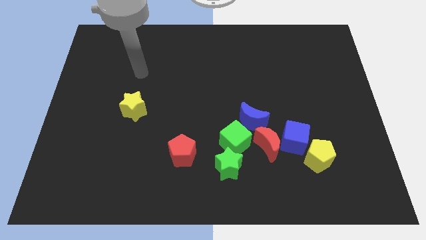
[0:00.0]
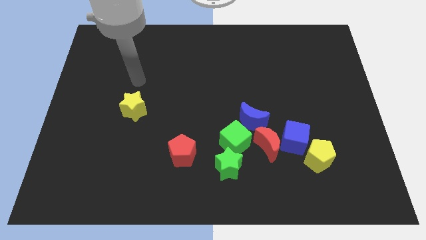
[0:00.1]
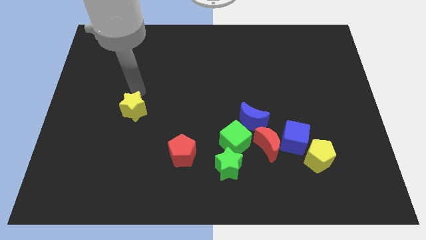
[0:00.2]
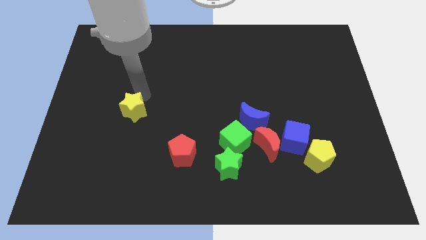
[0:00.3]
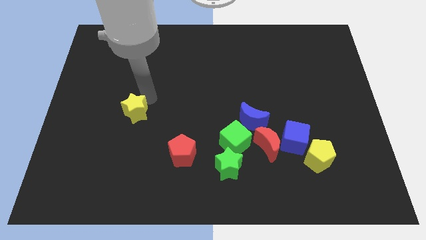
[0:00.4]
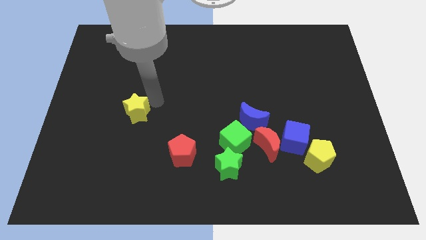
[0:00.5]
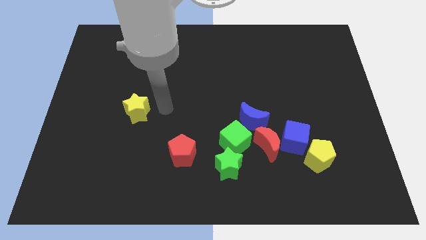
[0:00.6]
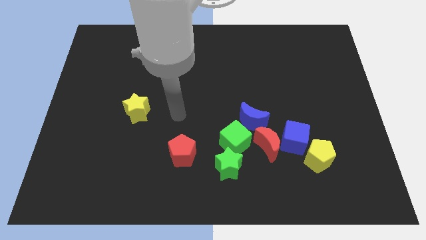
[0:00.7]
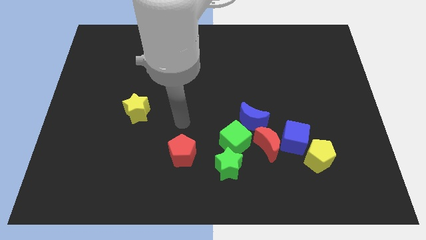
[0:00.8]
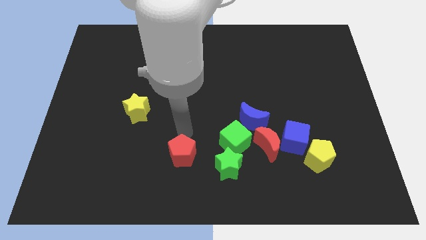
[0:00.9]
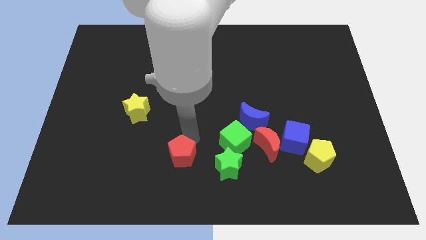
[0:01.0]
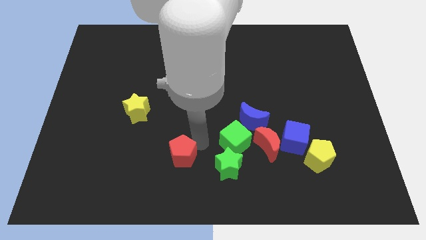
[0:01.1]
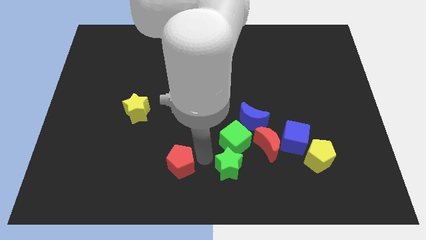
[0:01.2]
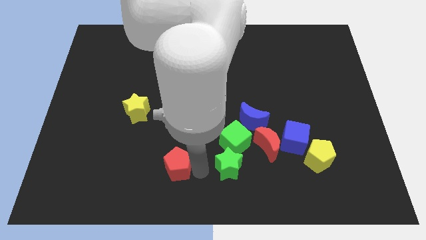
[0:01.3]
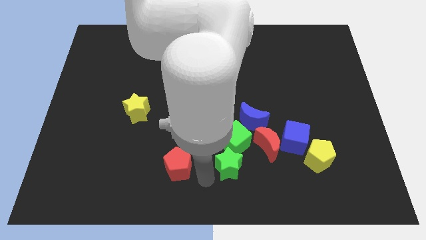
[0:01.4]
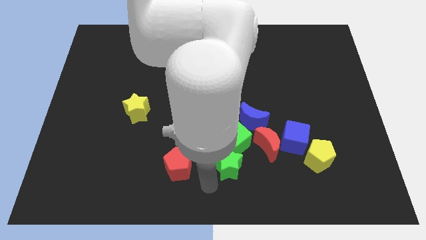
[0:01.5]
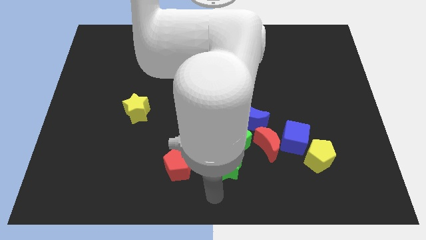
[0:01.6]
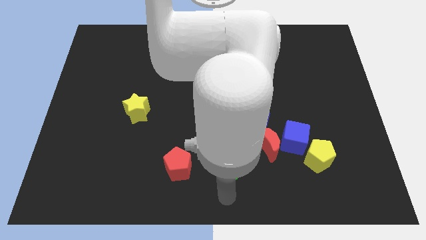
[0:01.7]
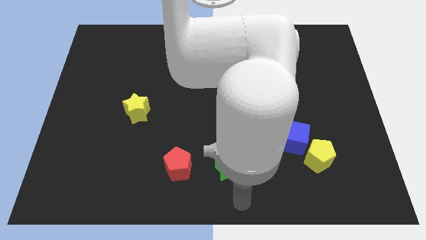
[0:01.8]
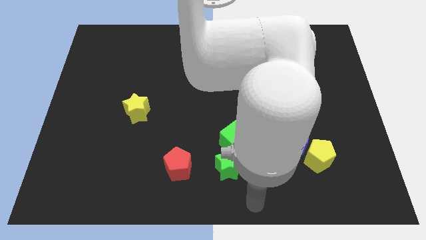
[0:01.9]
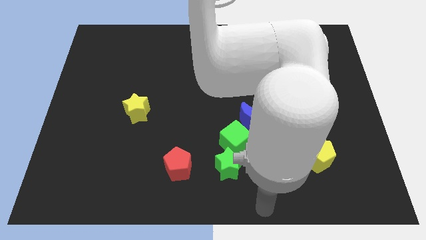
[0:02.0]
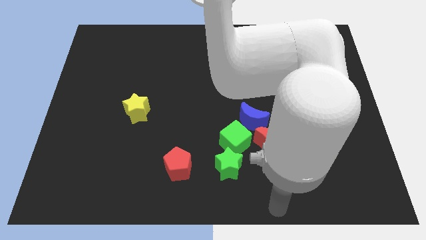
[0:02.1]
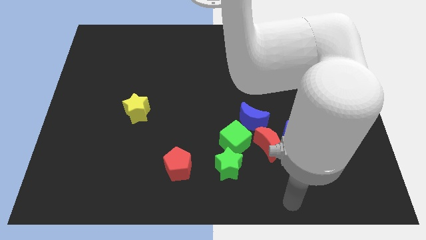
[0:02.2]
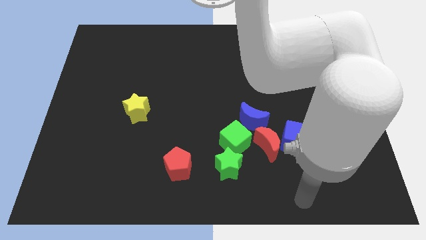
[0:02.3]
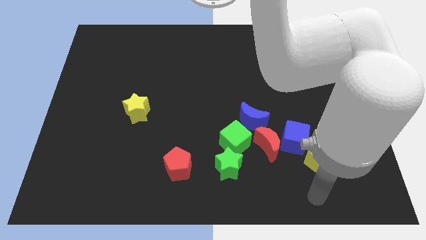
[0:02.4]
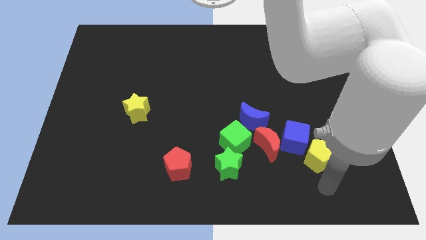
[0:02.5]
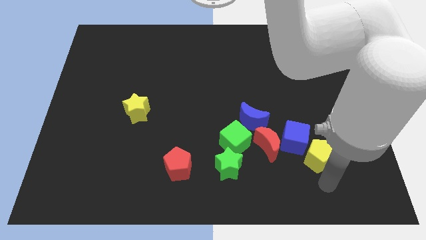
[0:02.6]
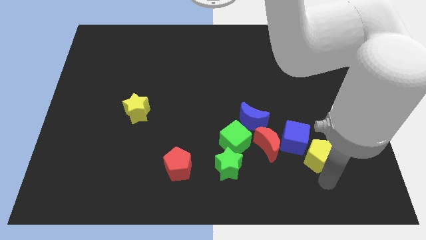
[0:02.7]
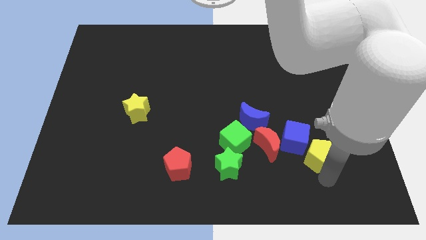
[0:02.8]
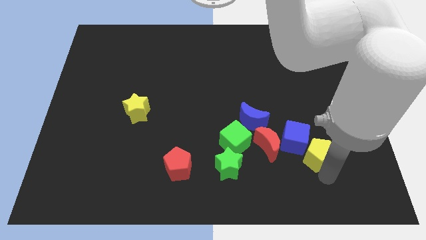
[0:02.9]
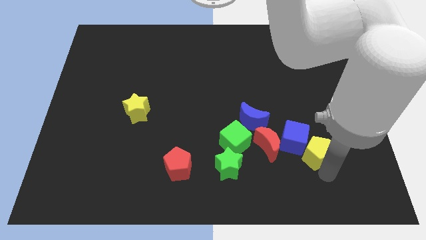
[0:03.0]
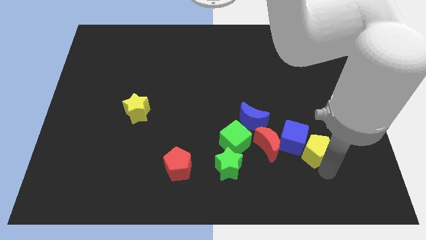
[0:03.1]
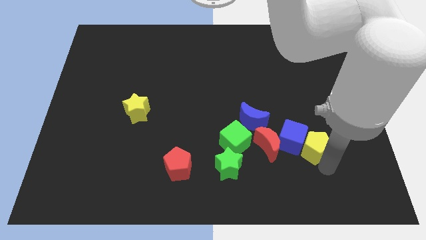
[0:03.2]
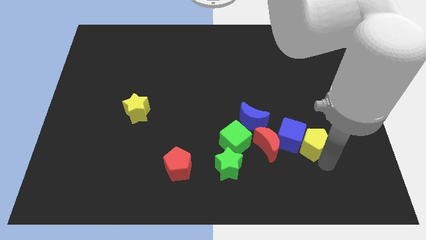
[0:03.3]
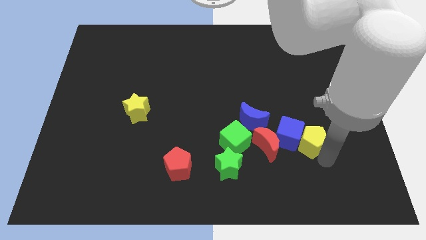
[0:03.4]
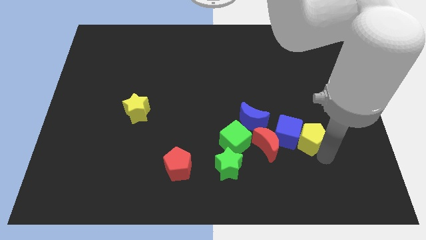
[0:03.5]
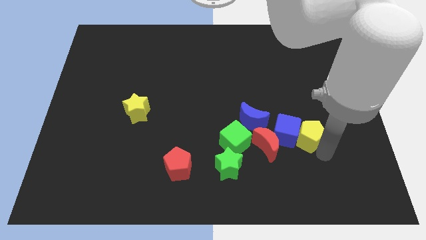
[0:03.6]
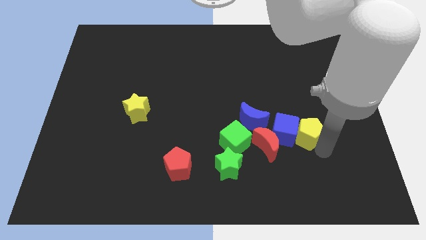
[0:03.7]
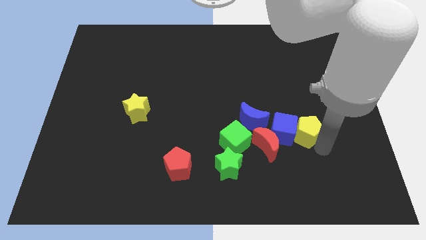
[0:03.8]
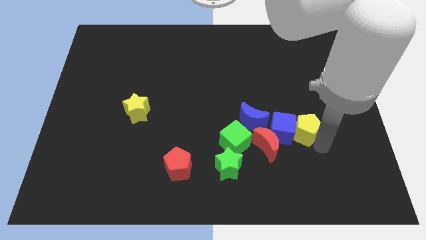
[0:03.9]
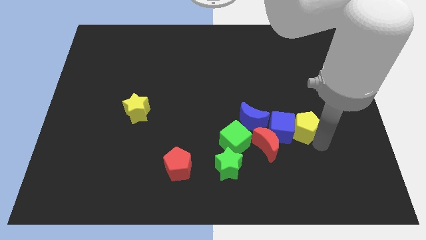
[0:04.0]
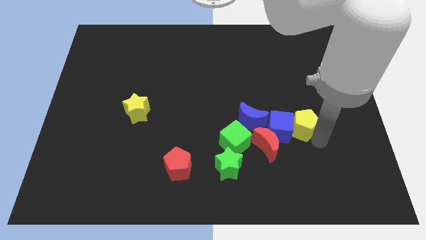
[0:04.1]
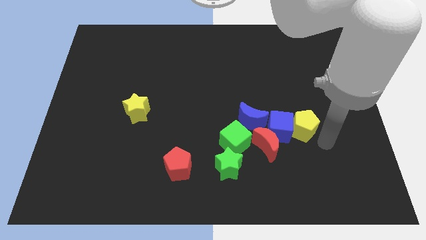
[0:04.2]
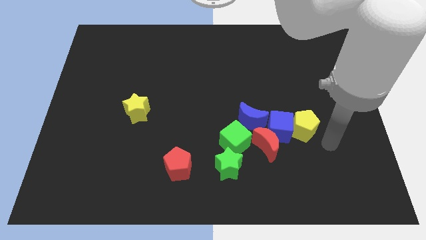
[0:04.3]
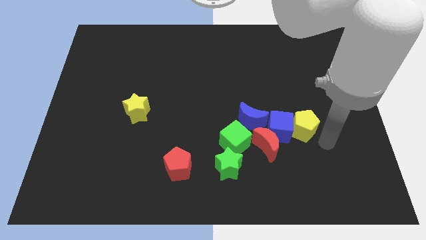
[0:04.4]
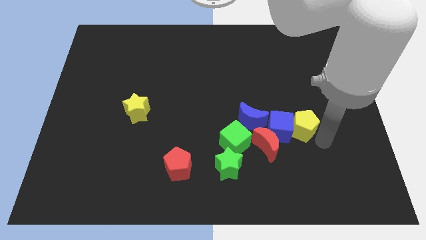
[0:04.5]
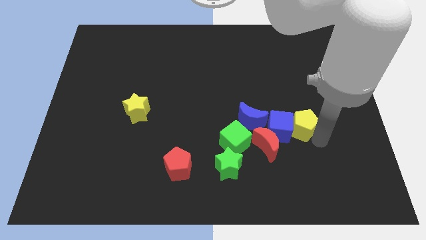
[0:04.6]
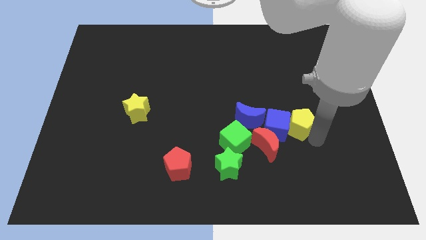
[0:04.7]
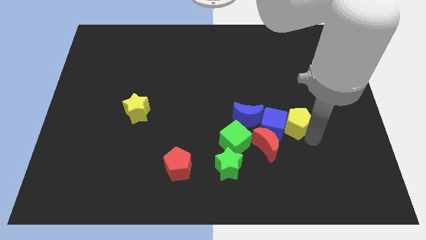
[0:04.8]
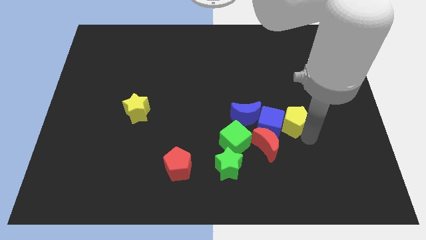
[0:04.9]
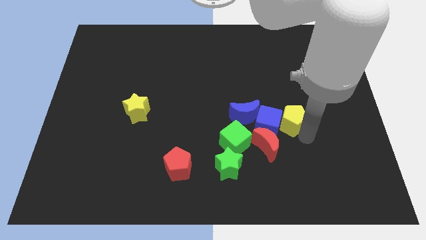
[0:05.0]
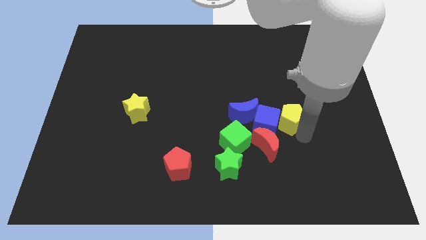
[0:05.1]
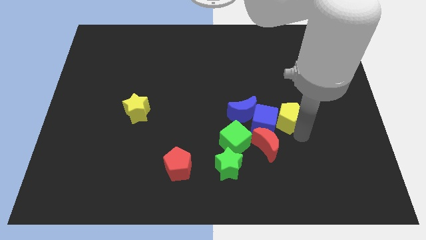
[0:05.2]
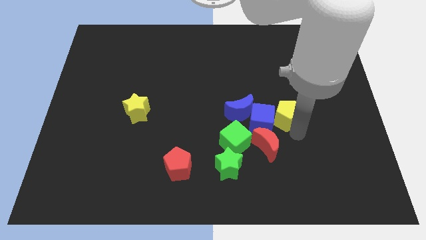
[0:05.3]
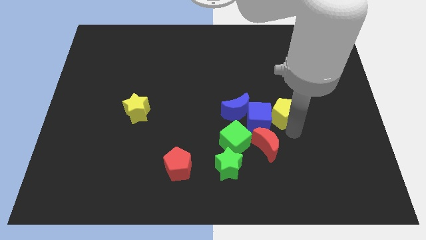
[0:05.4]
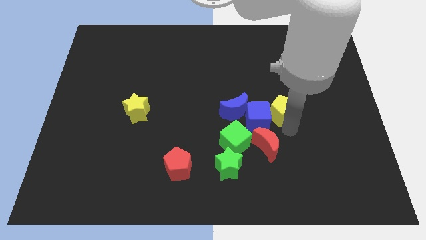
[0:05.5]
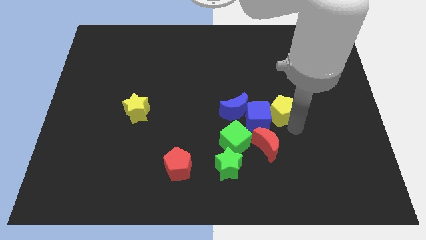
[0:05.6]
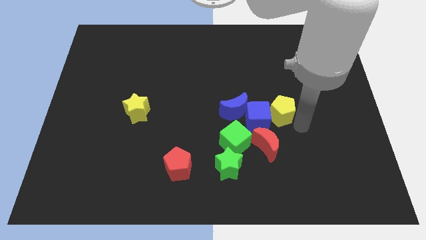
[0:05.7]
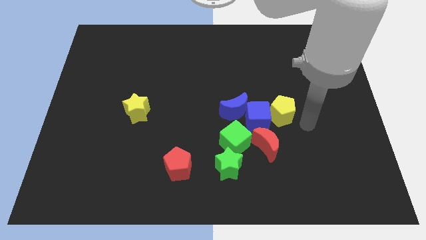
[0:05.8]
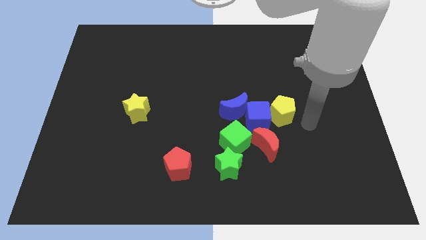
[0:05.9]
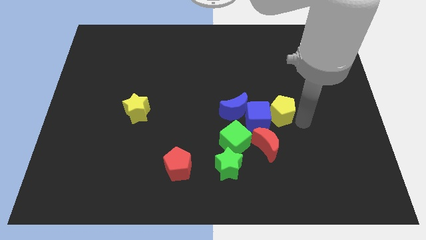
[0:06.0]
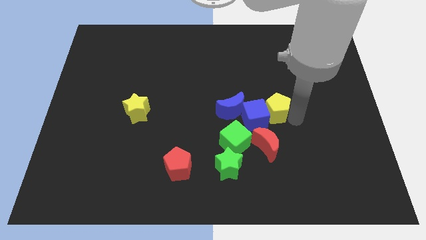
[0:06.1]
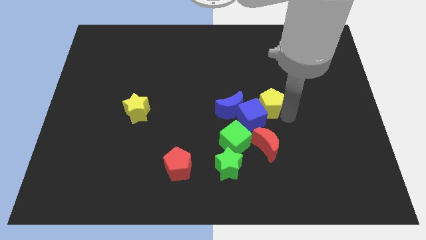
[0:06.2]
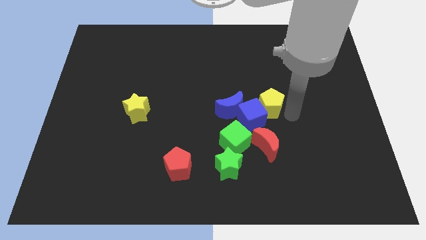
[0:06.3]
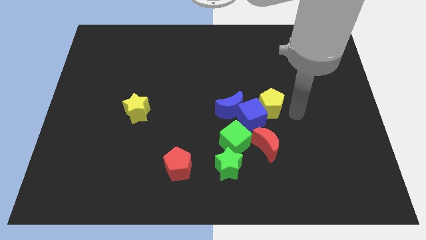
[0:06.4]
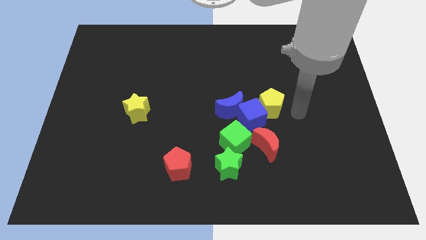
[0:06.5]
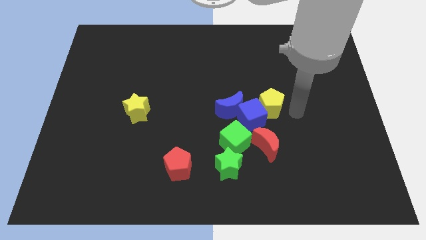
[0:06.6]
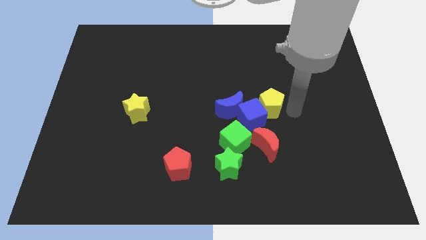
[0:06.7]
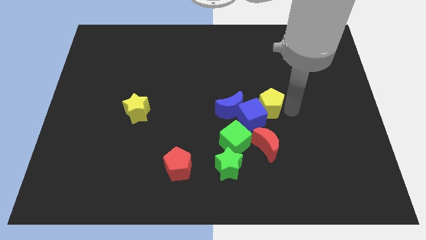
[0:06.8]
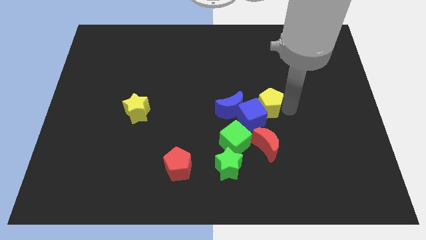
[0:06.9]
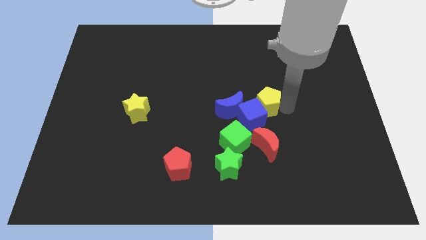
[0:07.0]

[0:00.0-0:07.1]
push the yellow pentagon to the center
